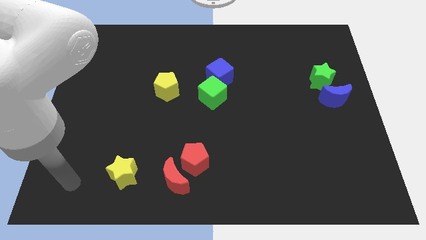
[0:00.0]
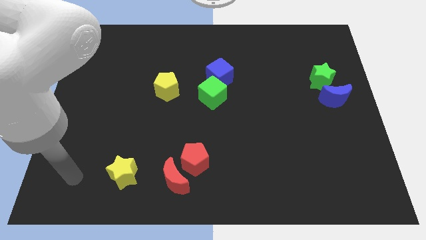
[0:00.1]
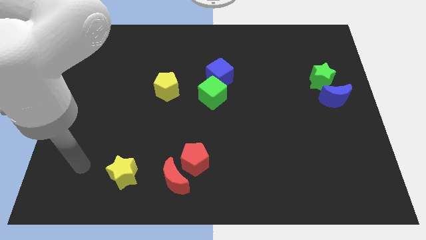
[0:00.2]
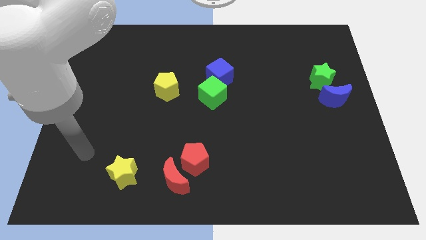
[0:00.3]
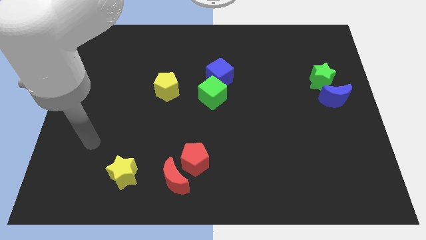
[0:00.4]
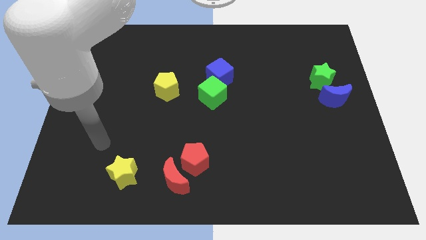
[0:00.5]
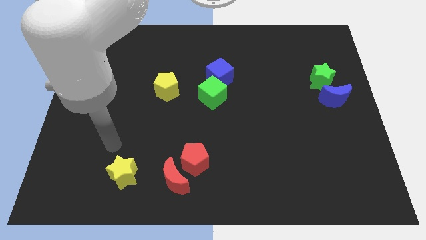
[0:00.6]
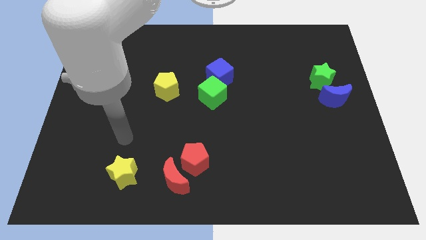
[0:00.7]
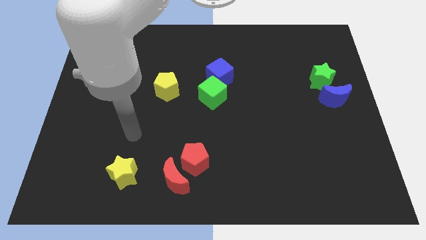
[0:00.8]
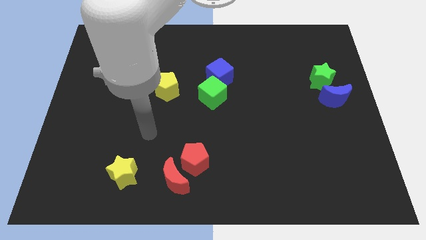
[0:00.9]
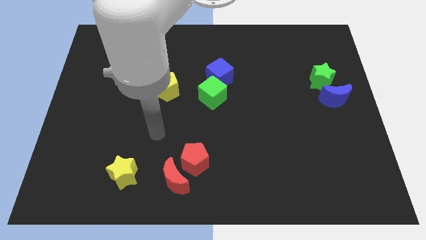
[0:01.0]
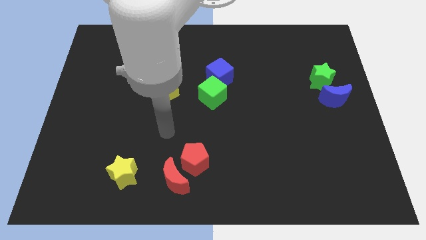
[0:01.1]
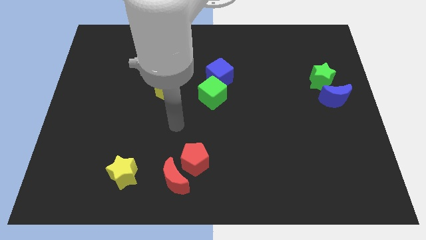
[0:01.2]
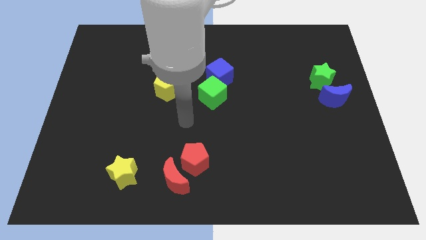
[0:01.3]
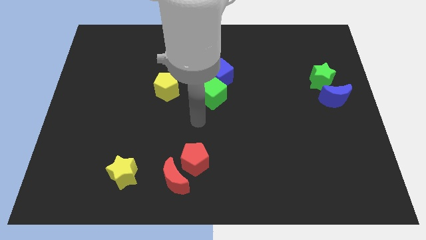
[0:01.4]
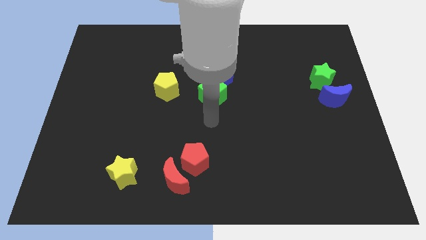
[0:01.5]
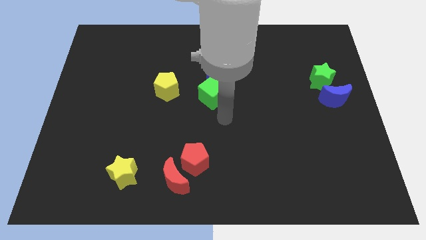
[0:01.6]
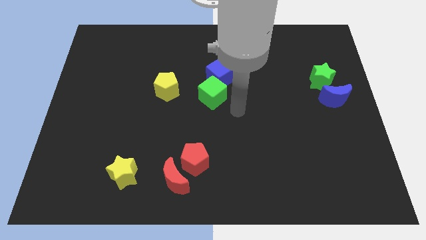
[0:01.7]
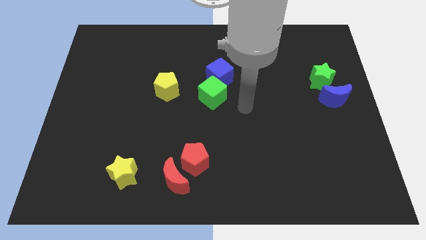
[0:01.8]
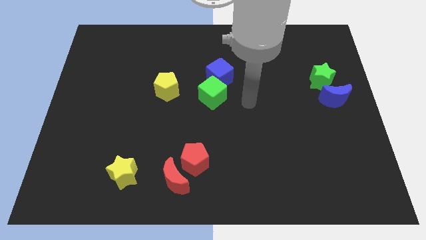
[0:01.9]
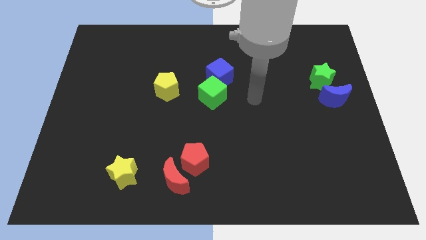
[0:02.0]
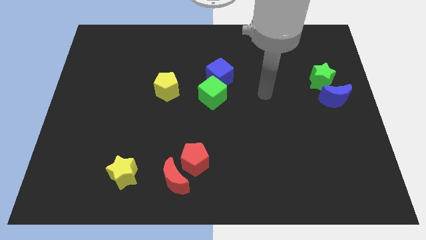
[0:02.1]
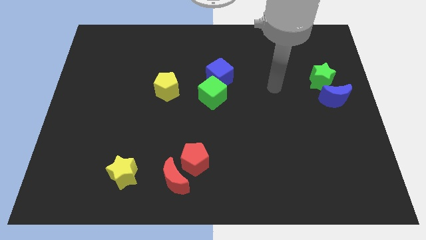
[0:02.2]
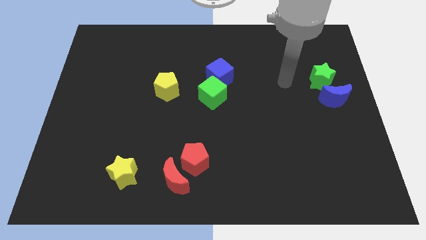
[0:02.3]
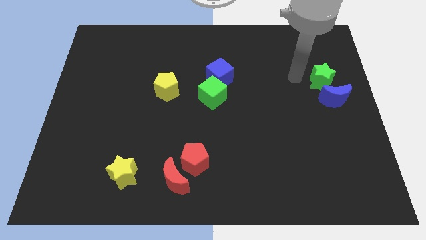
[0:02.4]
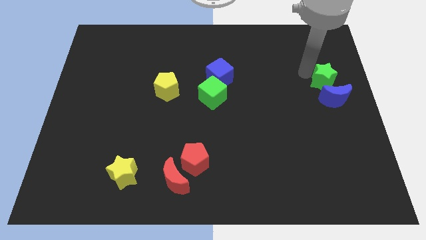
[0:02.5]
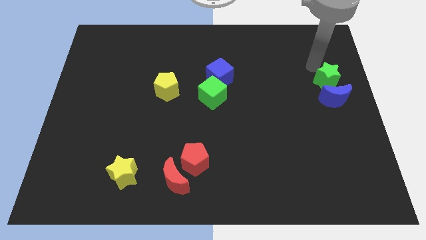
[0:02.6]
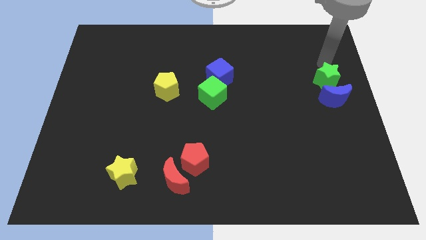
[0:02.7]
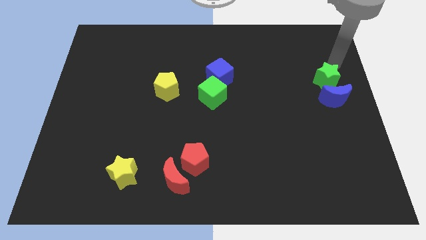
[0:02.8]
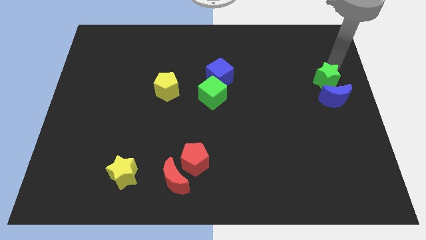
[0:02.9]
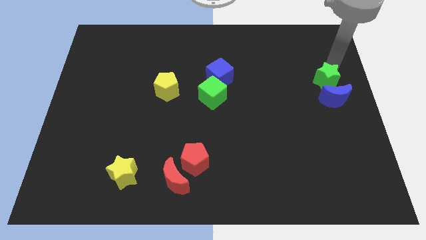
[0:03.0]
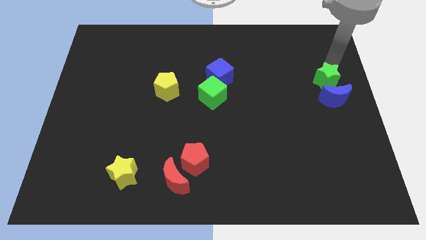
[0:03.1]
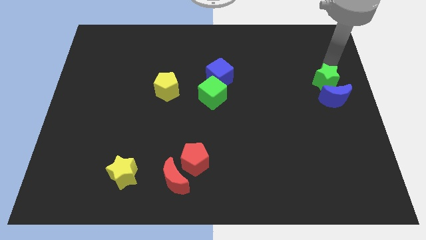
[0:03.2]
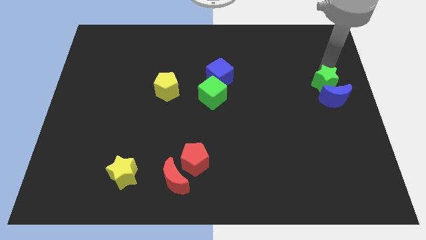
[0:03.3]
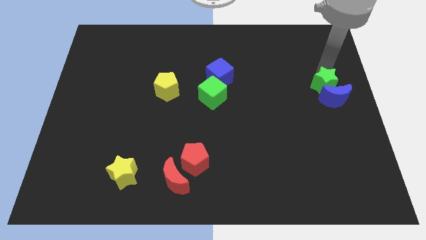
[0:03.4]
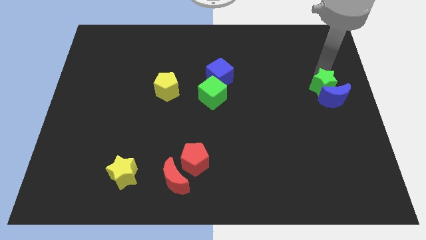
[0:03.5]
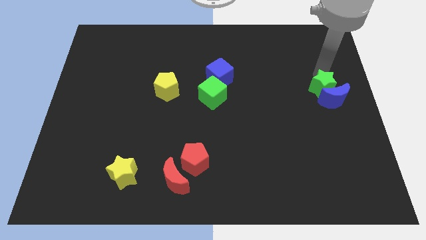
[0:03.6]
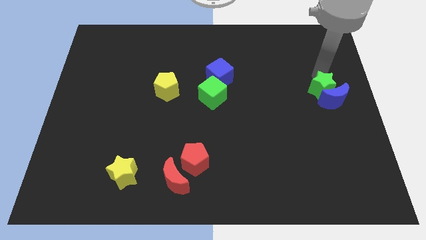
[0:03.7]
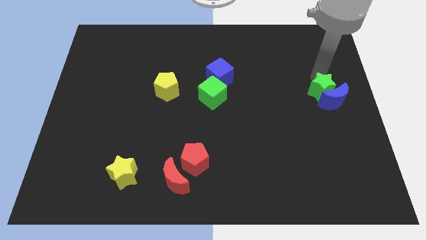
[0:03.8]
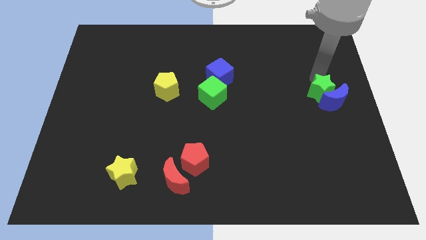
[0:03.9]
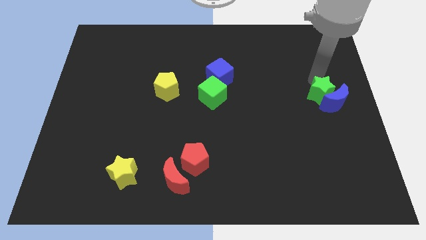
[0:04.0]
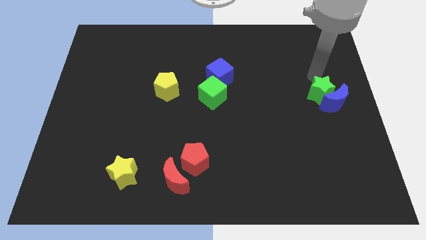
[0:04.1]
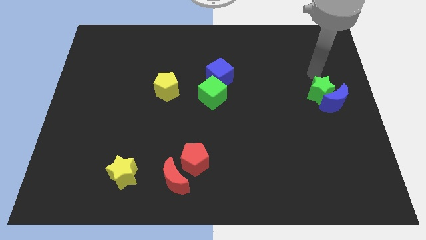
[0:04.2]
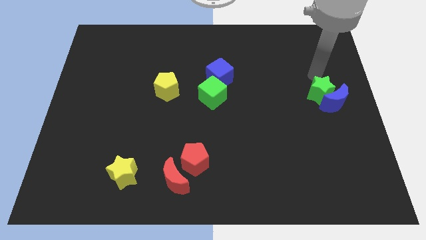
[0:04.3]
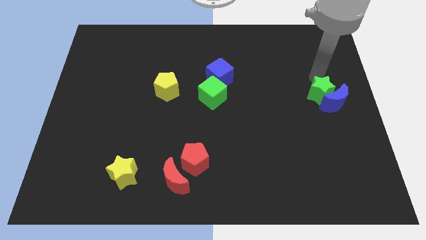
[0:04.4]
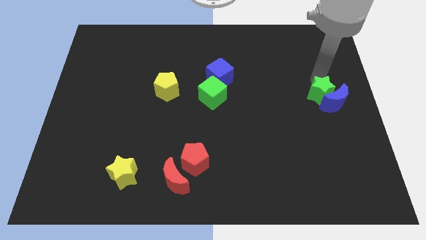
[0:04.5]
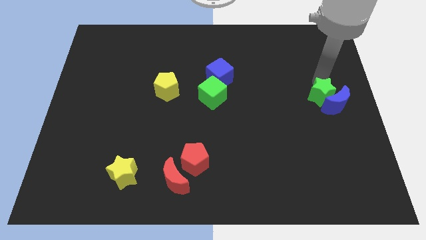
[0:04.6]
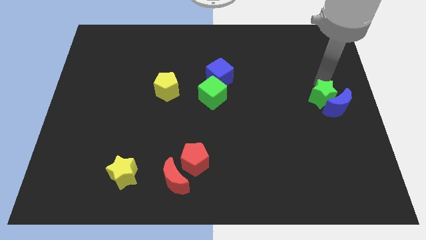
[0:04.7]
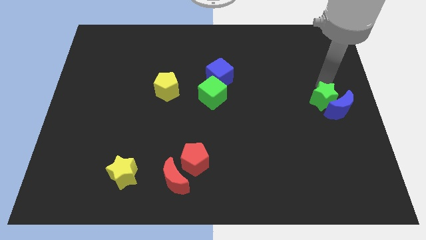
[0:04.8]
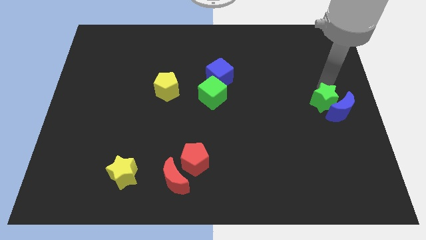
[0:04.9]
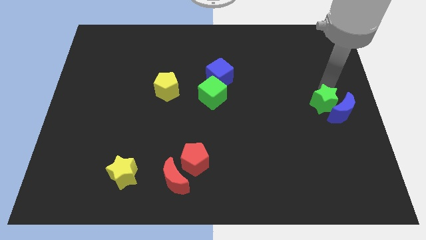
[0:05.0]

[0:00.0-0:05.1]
slide the green star downwards a little bit

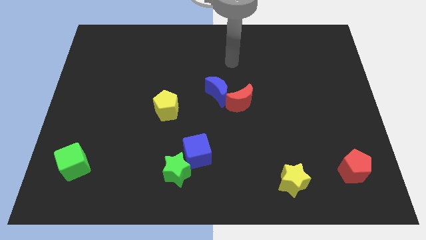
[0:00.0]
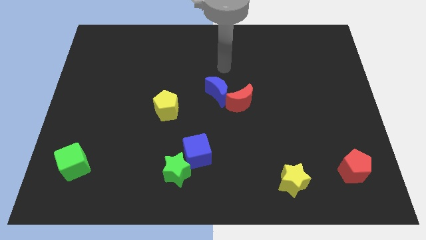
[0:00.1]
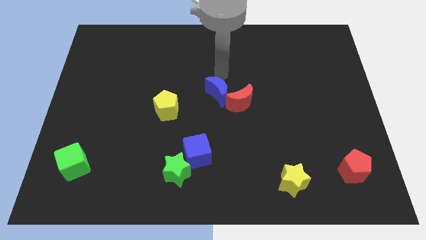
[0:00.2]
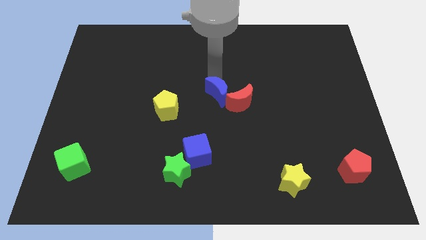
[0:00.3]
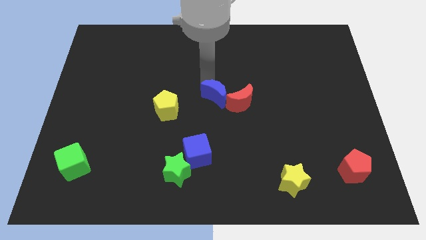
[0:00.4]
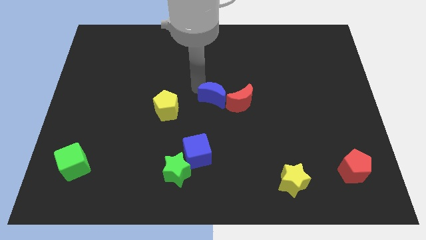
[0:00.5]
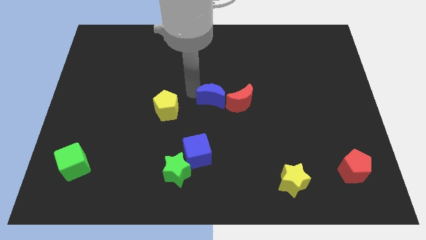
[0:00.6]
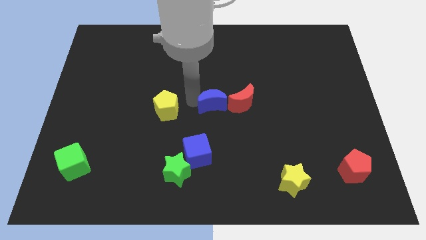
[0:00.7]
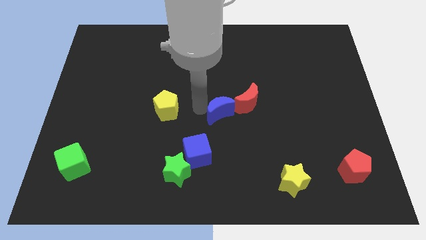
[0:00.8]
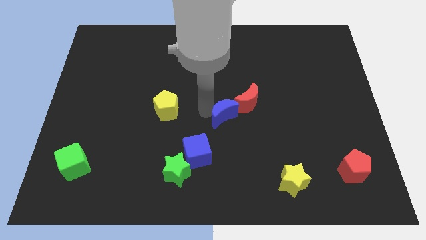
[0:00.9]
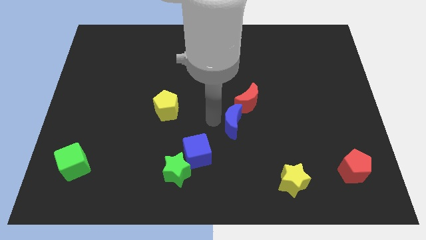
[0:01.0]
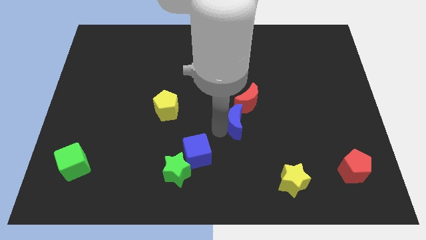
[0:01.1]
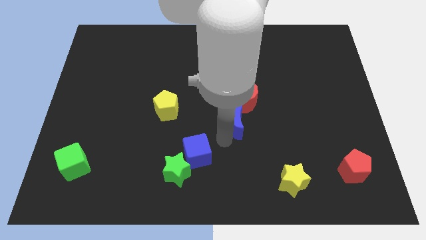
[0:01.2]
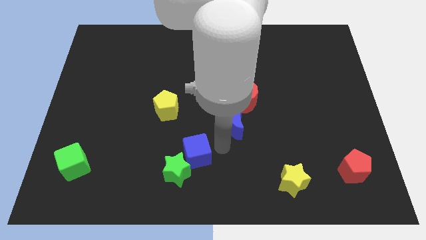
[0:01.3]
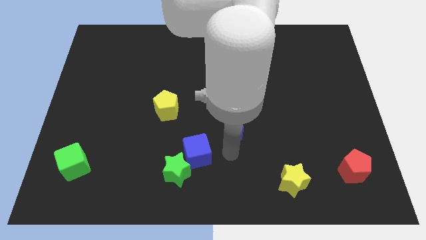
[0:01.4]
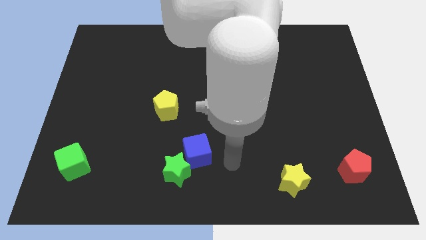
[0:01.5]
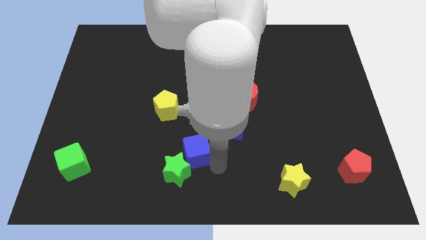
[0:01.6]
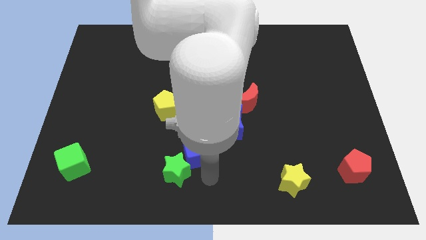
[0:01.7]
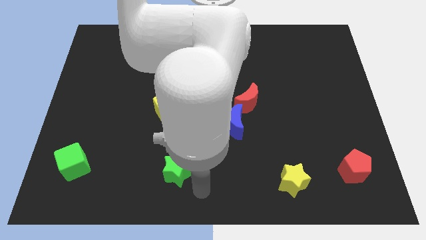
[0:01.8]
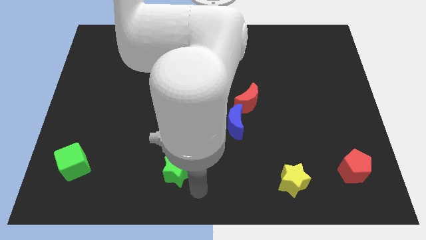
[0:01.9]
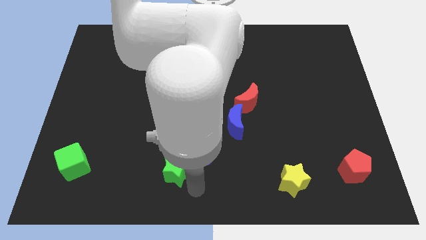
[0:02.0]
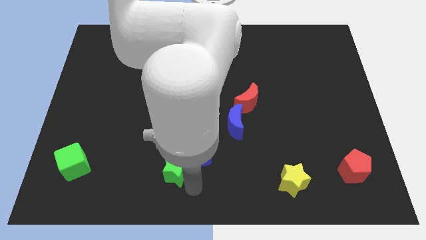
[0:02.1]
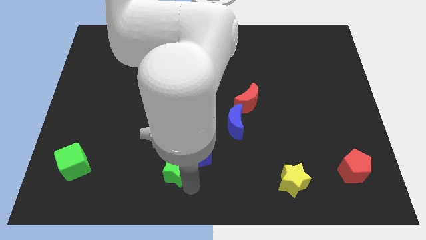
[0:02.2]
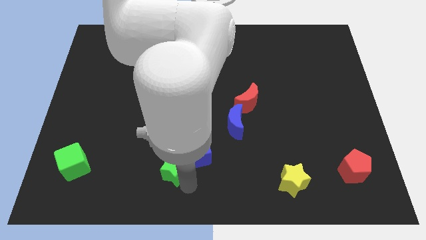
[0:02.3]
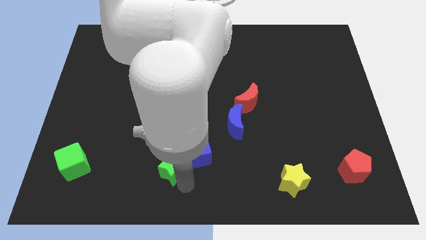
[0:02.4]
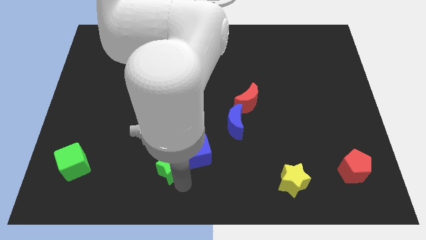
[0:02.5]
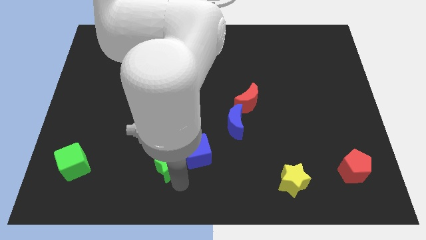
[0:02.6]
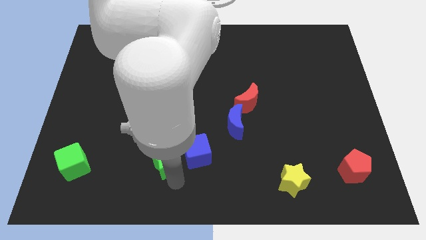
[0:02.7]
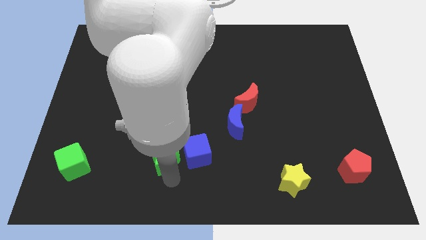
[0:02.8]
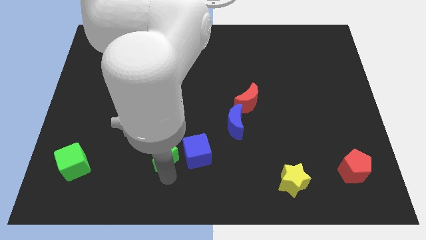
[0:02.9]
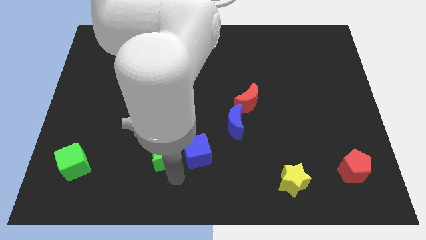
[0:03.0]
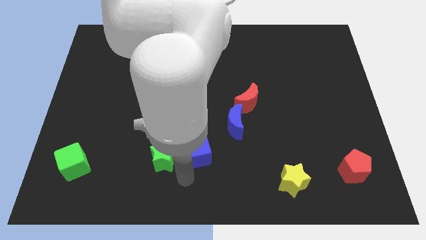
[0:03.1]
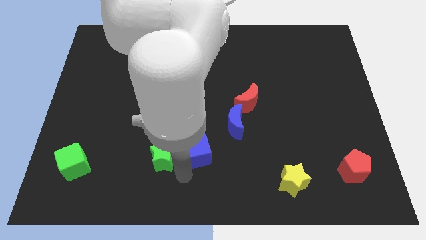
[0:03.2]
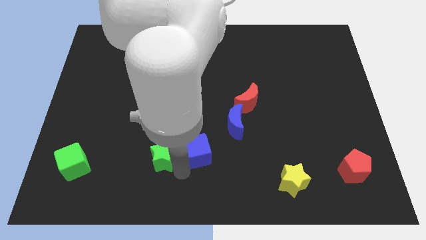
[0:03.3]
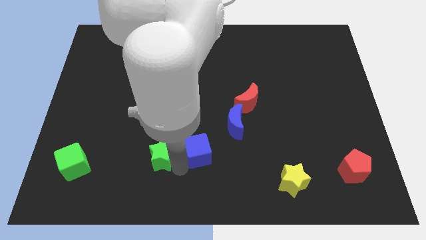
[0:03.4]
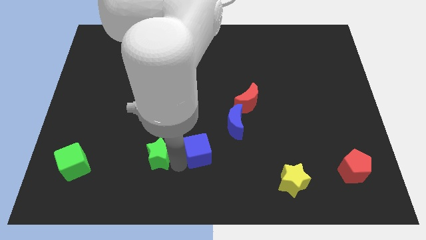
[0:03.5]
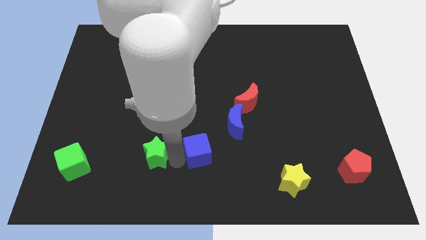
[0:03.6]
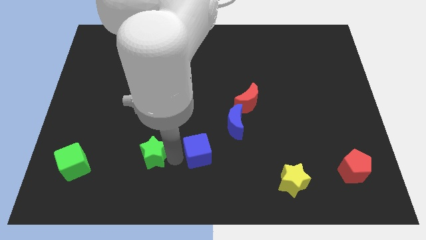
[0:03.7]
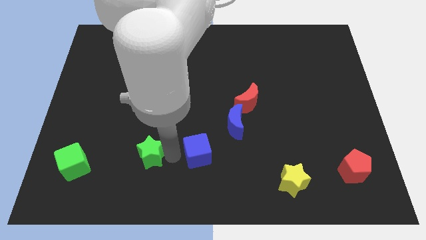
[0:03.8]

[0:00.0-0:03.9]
push the green star up and to the left a bit
